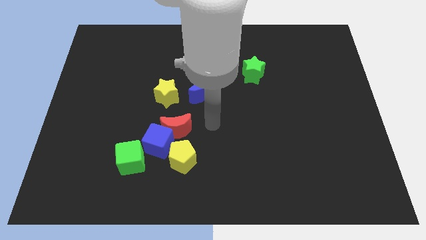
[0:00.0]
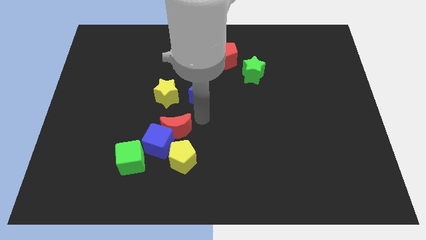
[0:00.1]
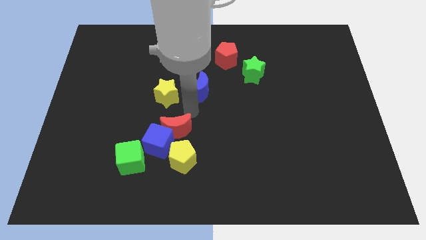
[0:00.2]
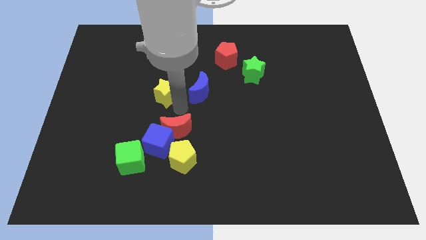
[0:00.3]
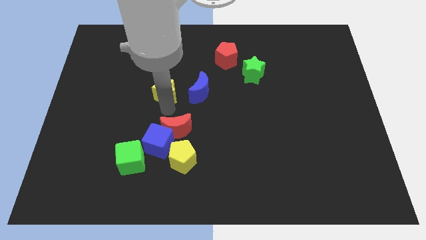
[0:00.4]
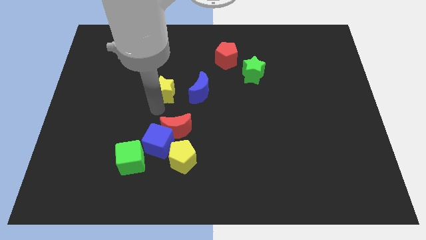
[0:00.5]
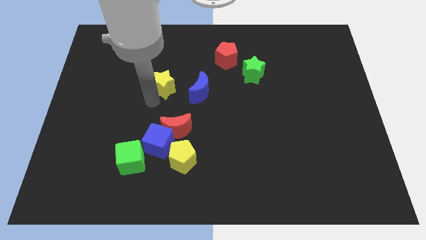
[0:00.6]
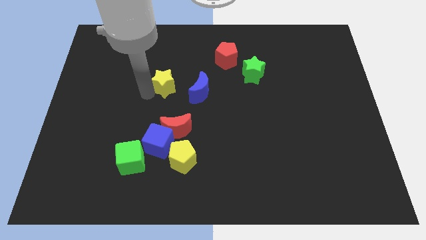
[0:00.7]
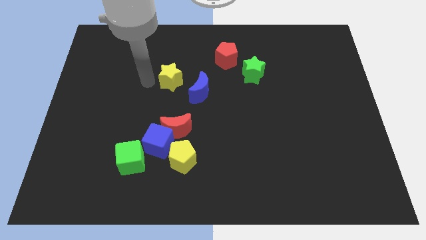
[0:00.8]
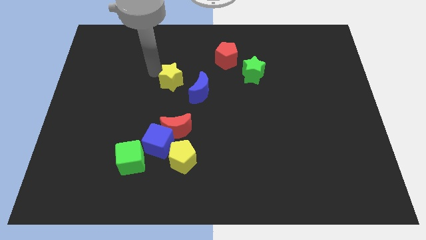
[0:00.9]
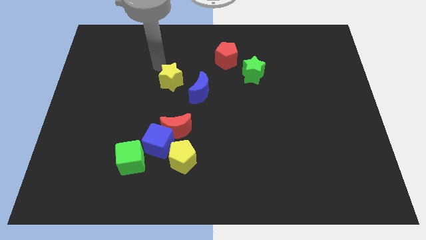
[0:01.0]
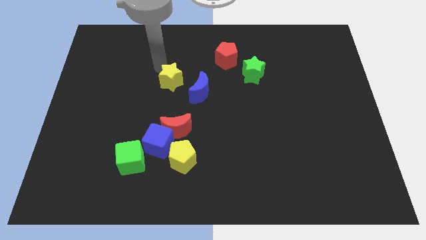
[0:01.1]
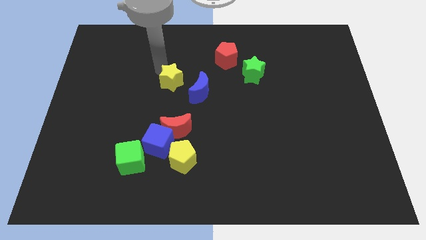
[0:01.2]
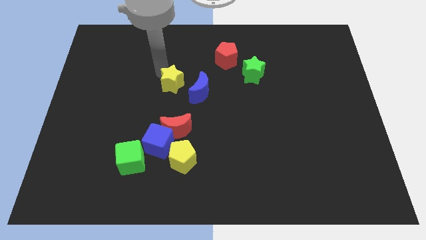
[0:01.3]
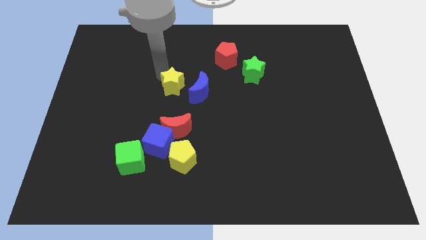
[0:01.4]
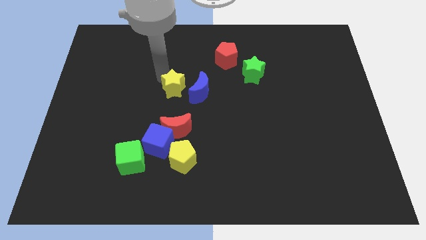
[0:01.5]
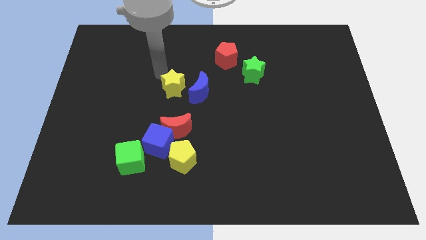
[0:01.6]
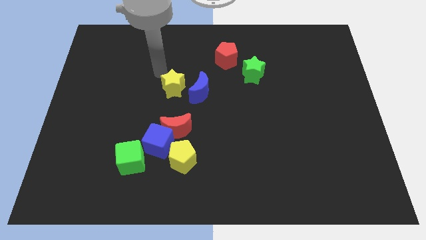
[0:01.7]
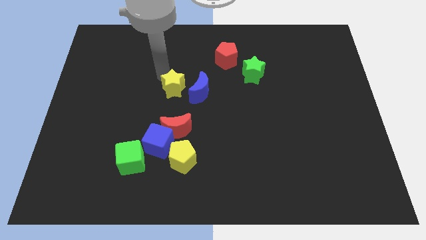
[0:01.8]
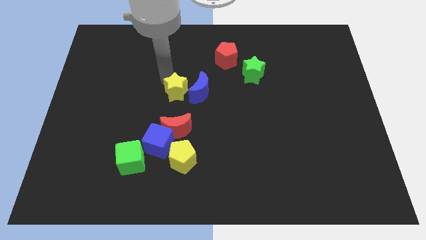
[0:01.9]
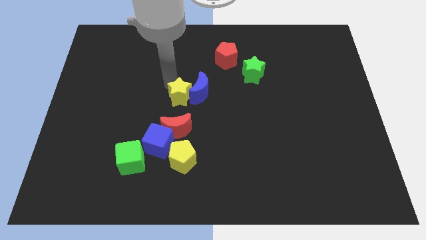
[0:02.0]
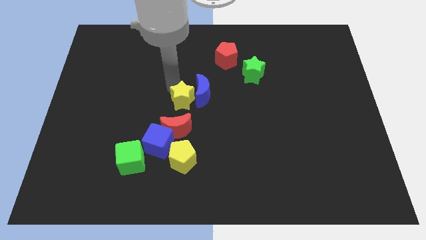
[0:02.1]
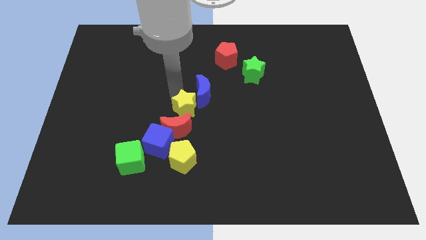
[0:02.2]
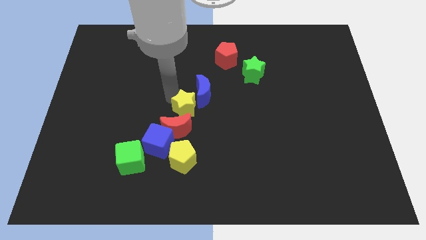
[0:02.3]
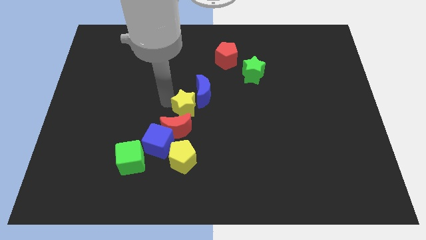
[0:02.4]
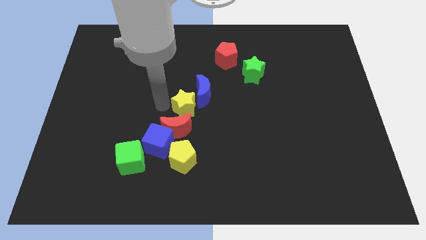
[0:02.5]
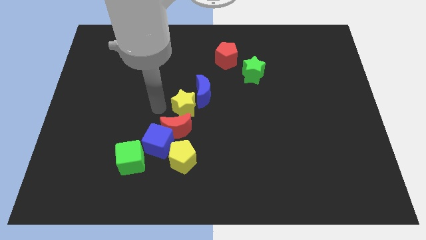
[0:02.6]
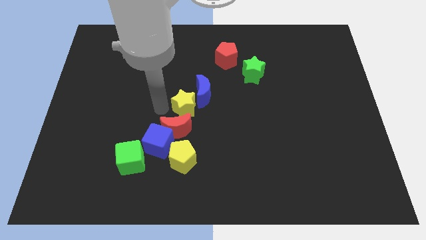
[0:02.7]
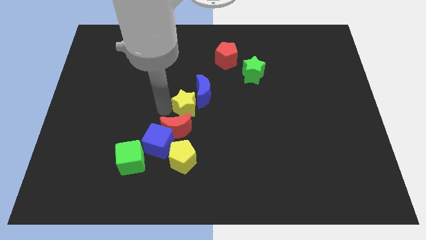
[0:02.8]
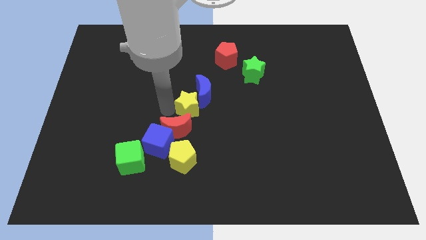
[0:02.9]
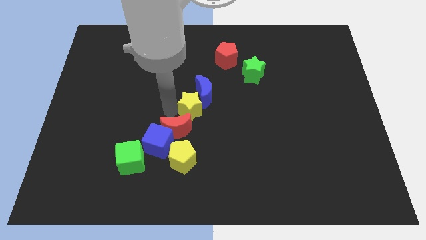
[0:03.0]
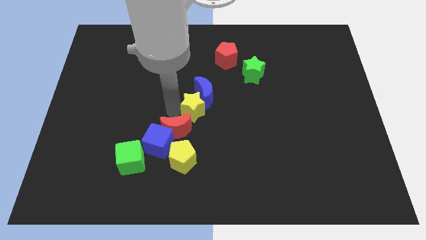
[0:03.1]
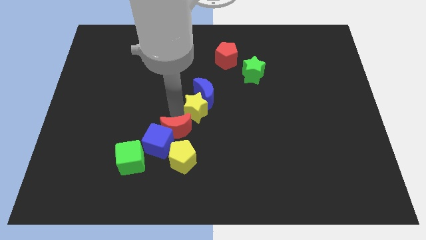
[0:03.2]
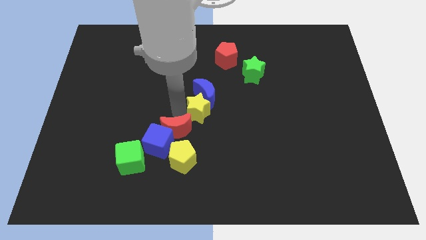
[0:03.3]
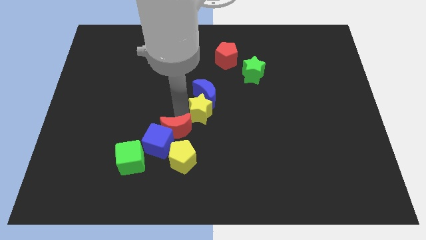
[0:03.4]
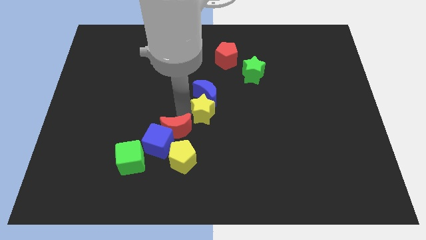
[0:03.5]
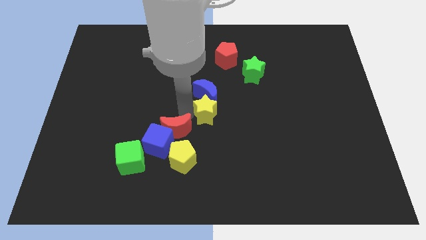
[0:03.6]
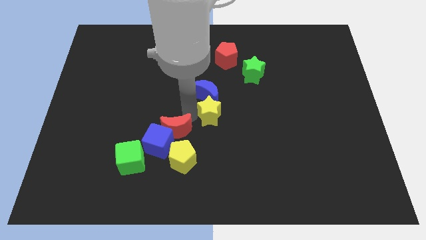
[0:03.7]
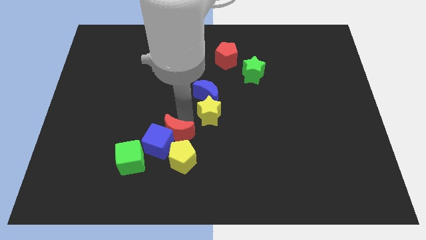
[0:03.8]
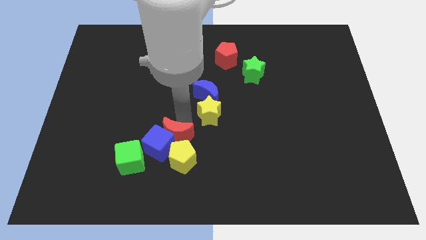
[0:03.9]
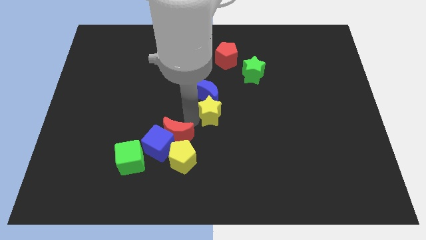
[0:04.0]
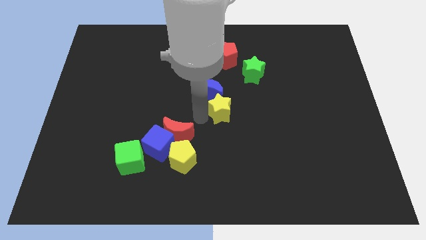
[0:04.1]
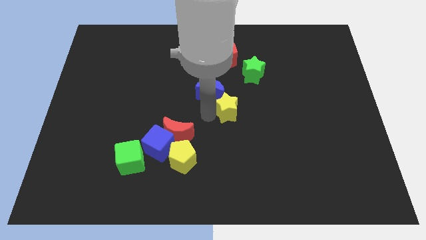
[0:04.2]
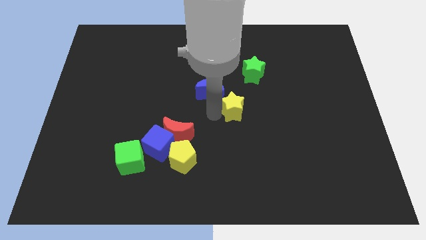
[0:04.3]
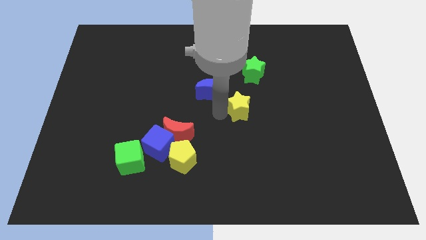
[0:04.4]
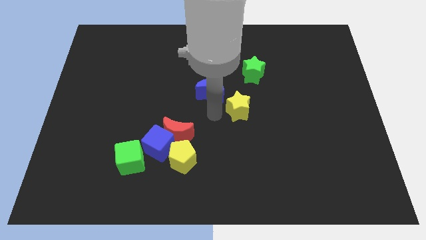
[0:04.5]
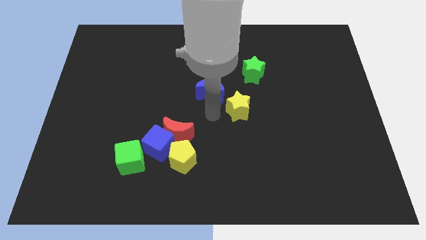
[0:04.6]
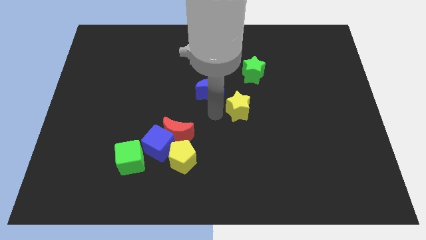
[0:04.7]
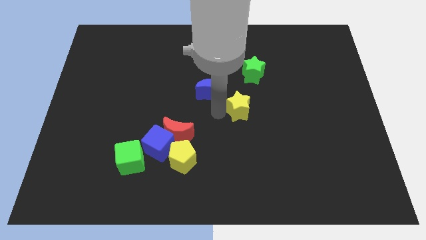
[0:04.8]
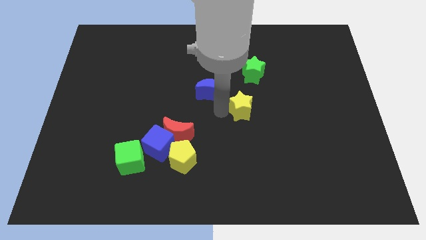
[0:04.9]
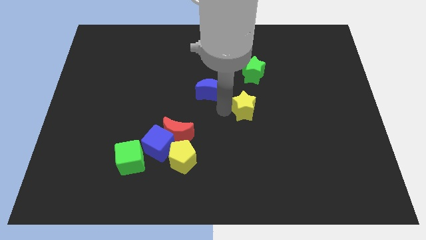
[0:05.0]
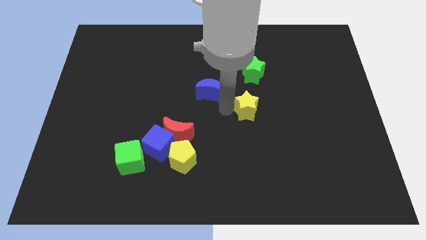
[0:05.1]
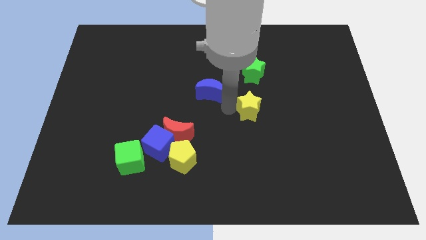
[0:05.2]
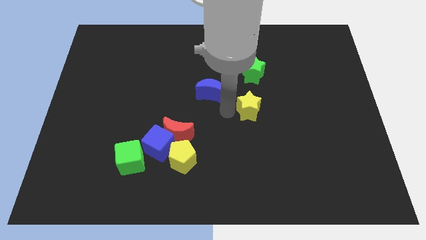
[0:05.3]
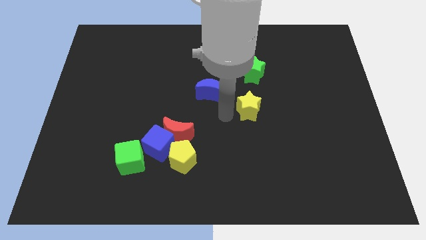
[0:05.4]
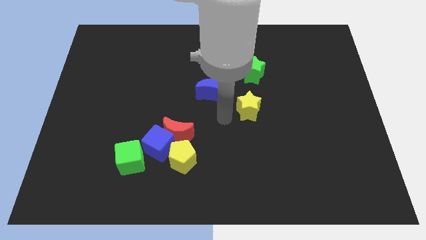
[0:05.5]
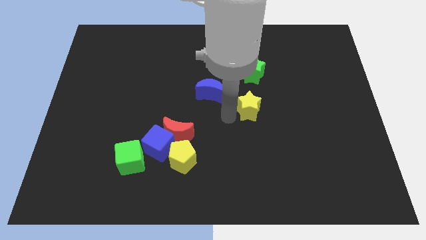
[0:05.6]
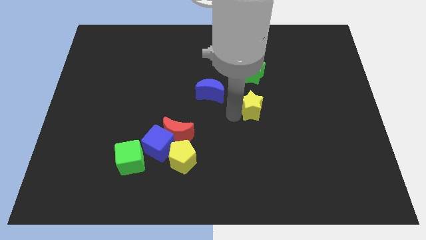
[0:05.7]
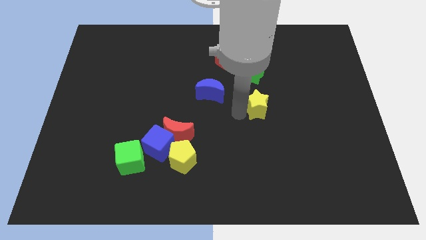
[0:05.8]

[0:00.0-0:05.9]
slide the yellow star right

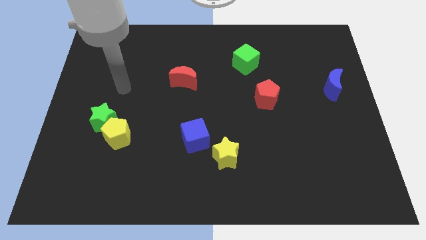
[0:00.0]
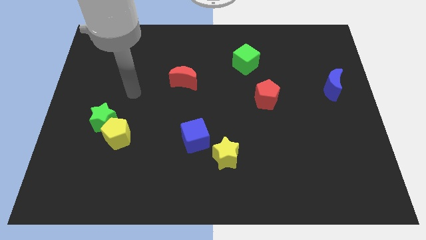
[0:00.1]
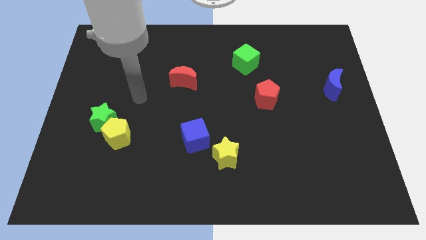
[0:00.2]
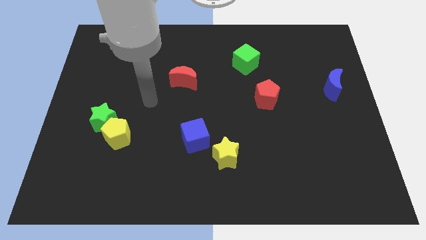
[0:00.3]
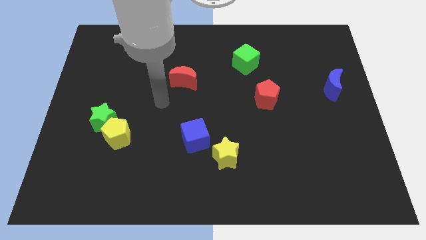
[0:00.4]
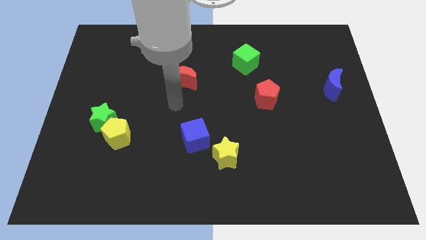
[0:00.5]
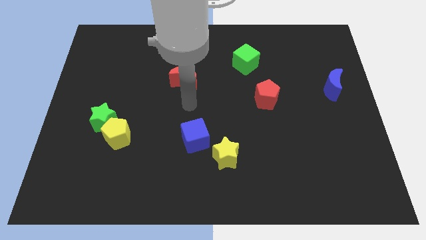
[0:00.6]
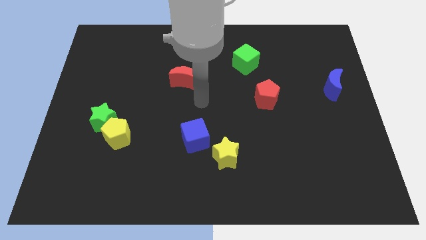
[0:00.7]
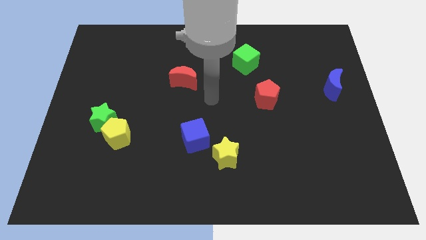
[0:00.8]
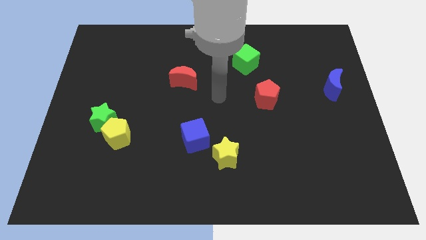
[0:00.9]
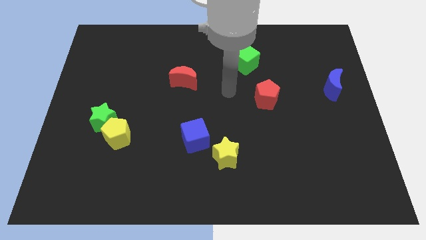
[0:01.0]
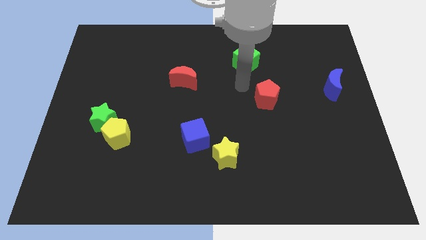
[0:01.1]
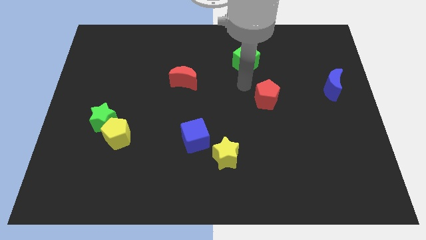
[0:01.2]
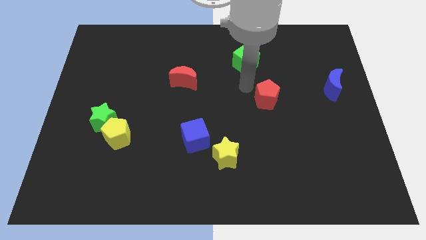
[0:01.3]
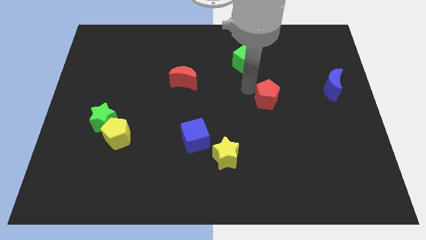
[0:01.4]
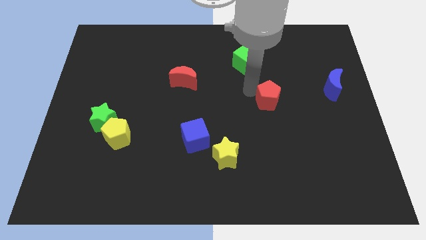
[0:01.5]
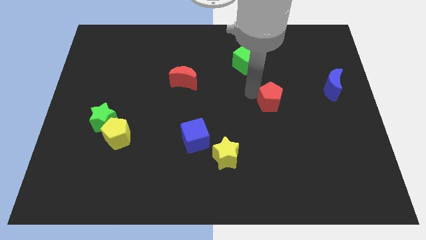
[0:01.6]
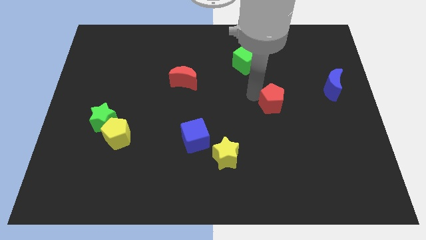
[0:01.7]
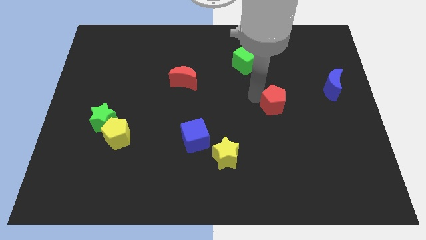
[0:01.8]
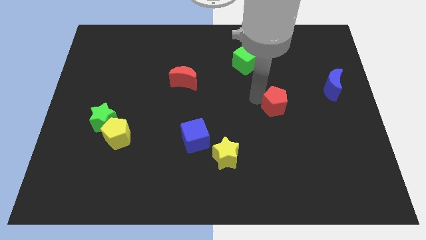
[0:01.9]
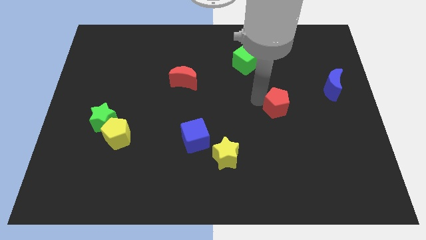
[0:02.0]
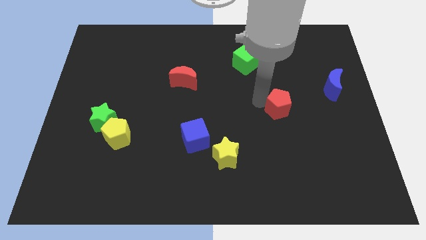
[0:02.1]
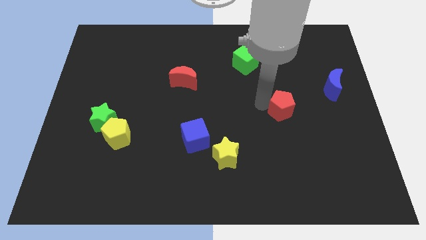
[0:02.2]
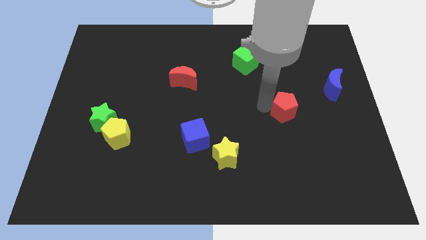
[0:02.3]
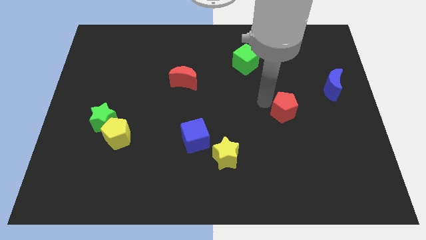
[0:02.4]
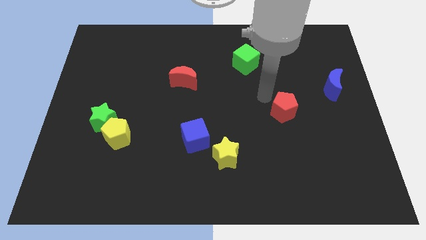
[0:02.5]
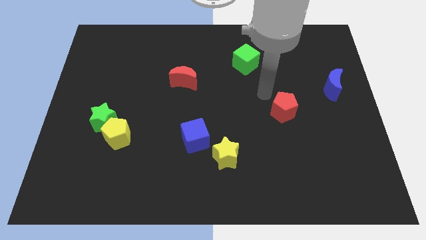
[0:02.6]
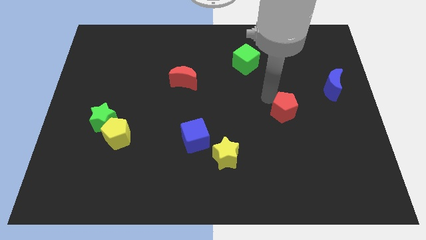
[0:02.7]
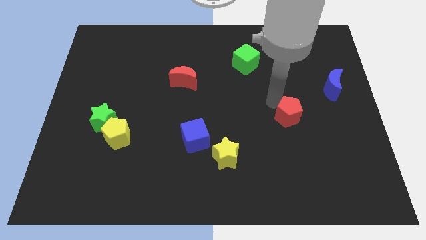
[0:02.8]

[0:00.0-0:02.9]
push the red pentagon downwards and then to the right slightly
